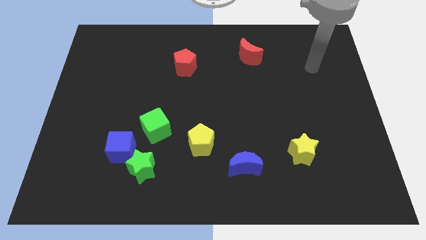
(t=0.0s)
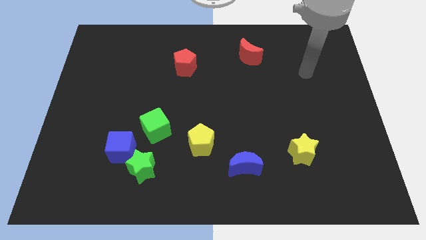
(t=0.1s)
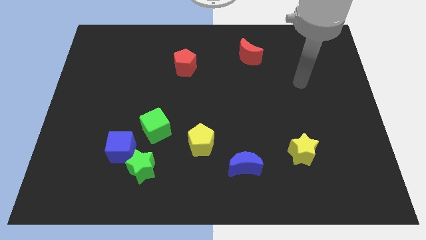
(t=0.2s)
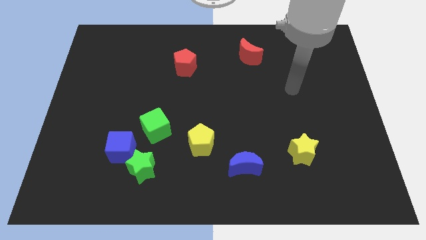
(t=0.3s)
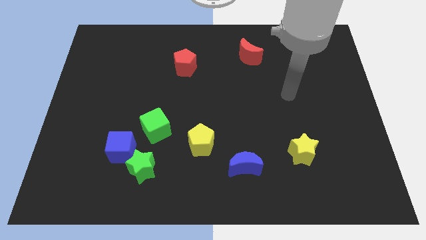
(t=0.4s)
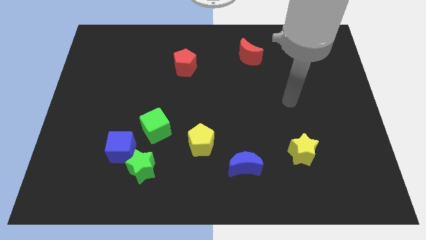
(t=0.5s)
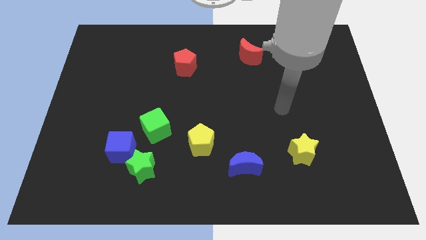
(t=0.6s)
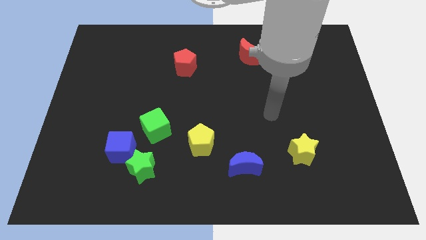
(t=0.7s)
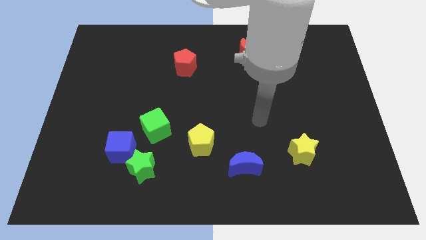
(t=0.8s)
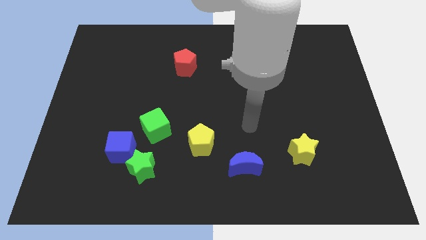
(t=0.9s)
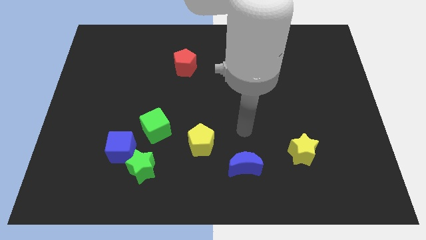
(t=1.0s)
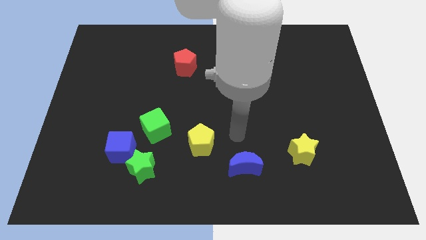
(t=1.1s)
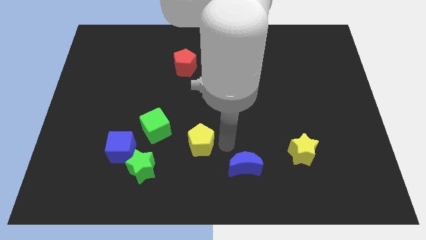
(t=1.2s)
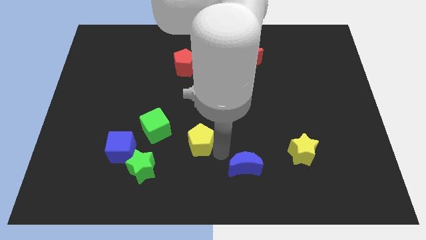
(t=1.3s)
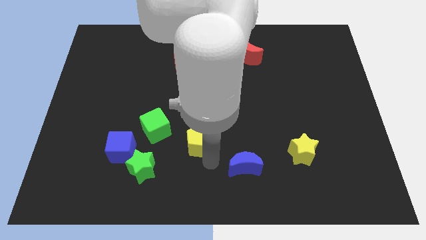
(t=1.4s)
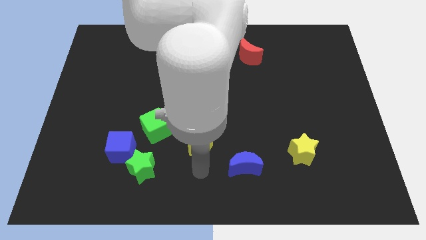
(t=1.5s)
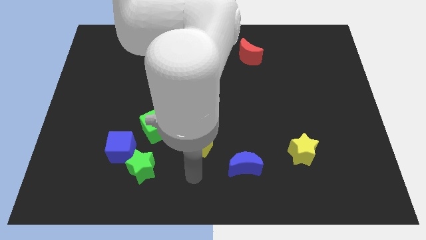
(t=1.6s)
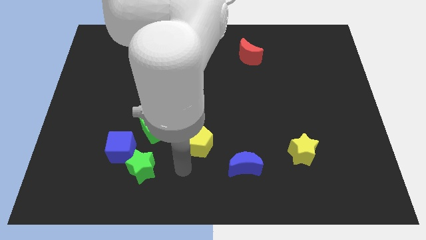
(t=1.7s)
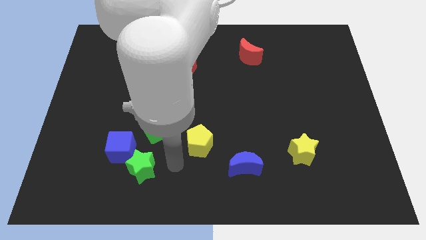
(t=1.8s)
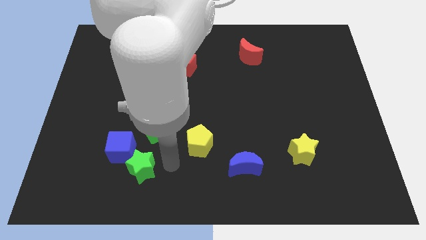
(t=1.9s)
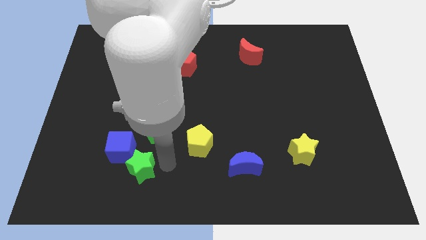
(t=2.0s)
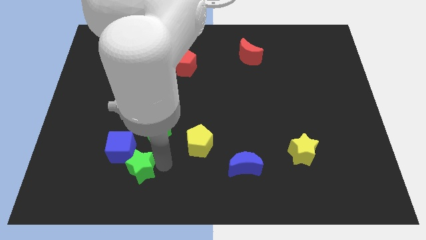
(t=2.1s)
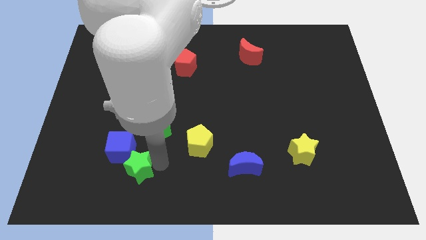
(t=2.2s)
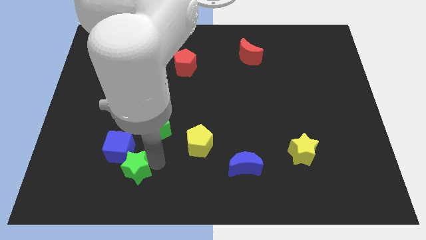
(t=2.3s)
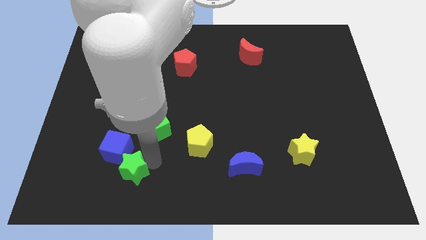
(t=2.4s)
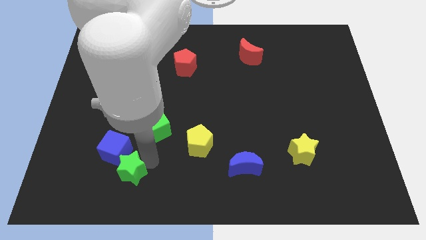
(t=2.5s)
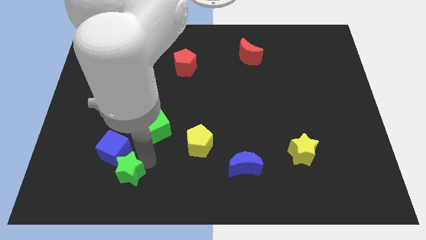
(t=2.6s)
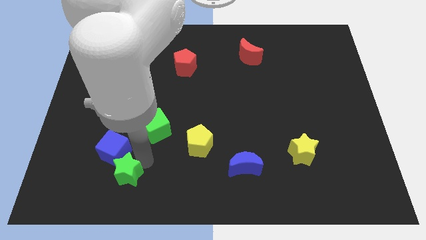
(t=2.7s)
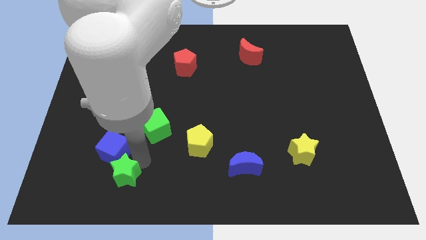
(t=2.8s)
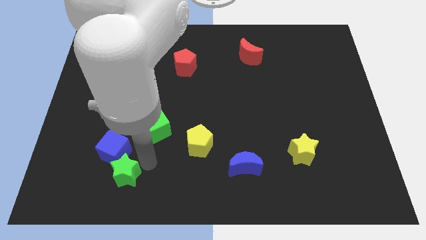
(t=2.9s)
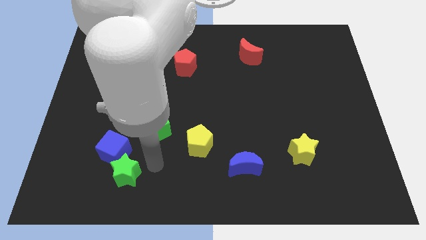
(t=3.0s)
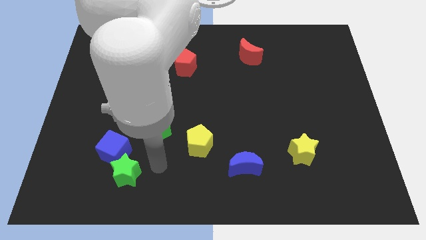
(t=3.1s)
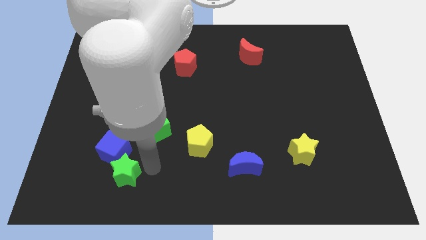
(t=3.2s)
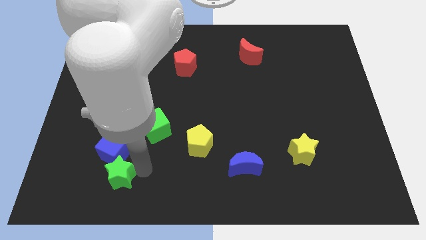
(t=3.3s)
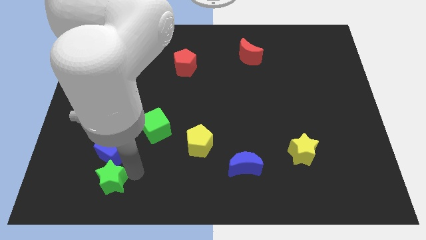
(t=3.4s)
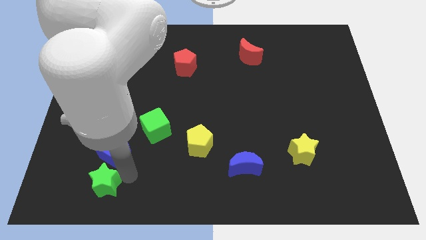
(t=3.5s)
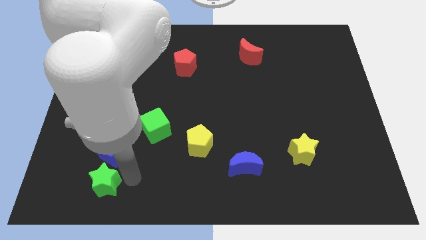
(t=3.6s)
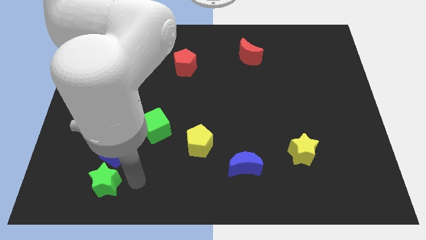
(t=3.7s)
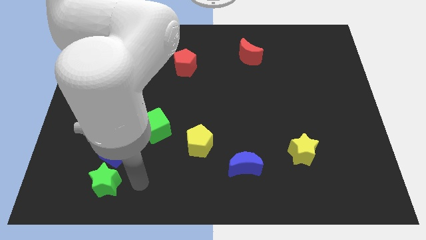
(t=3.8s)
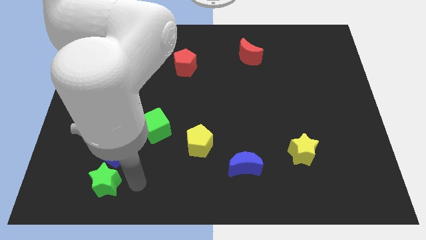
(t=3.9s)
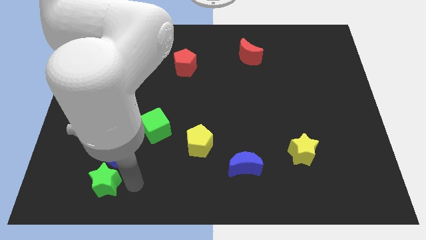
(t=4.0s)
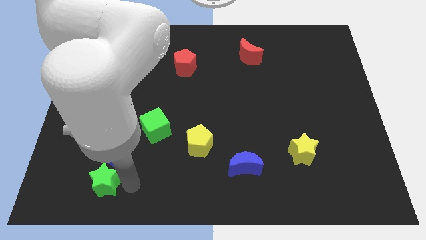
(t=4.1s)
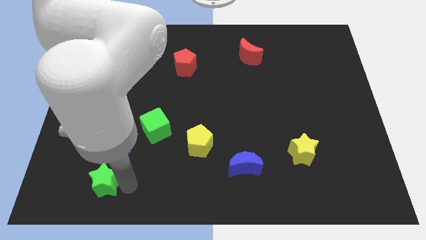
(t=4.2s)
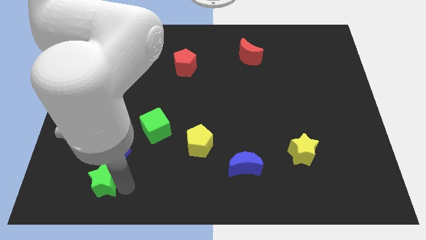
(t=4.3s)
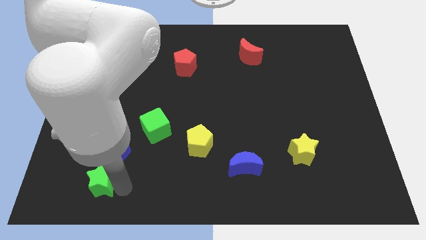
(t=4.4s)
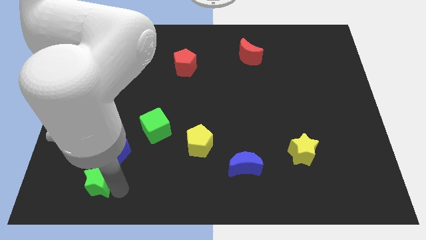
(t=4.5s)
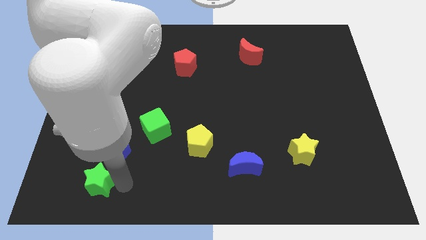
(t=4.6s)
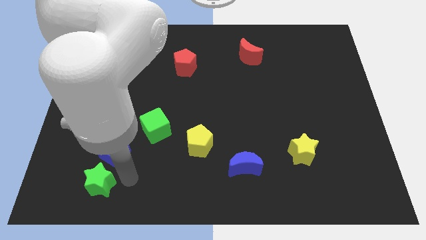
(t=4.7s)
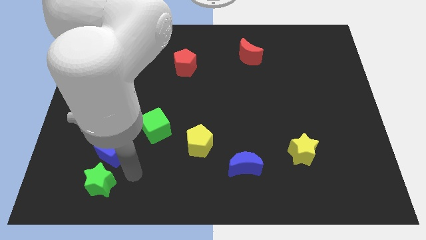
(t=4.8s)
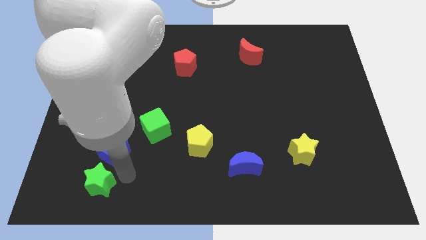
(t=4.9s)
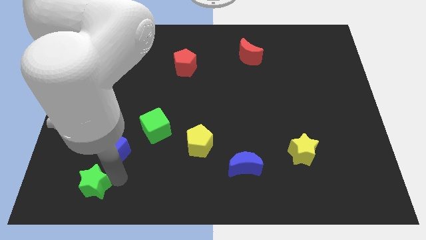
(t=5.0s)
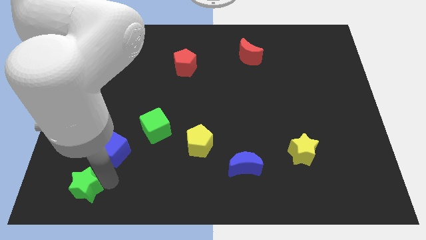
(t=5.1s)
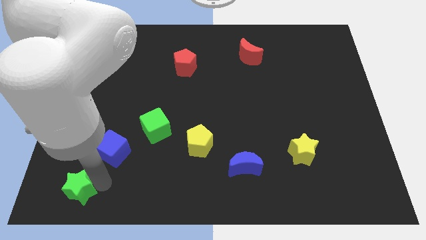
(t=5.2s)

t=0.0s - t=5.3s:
put the green star to the bottom left
